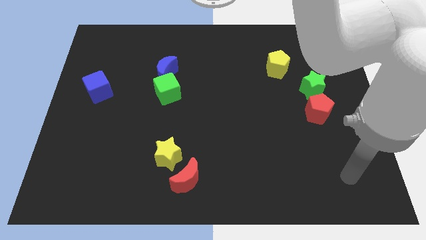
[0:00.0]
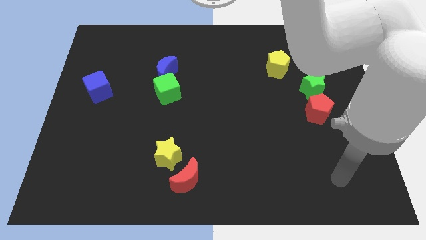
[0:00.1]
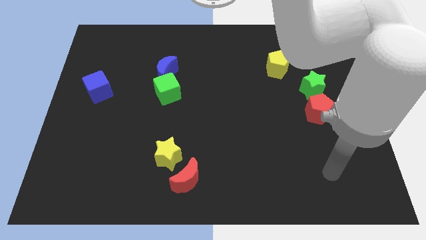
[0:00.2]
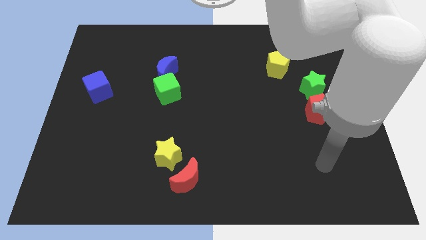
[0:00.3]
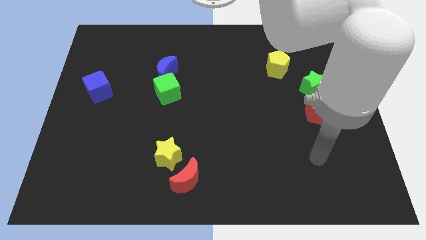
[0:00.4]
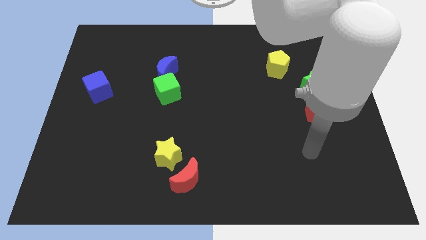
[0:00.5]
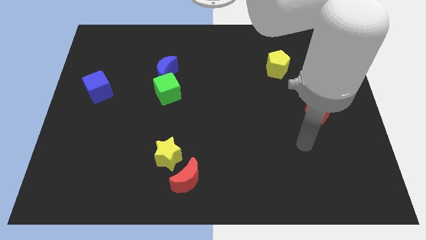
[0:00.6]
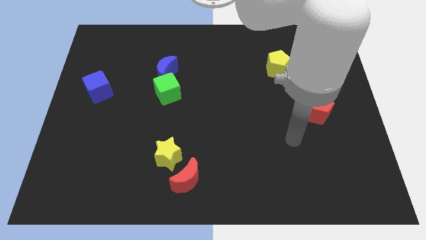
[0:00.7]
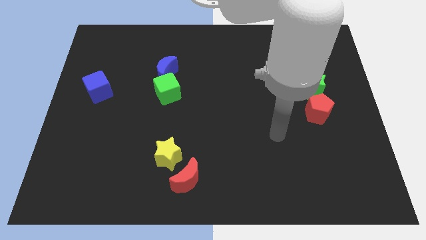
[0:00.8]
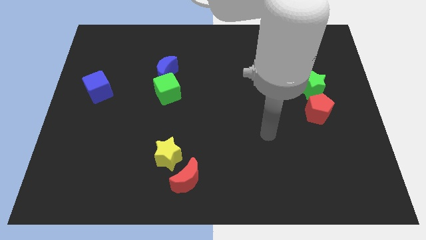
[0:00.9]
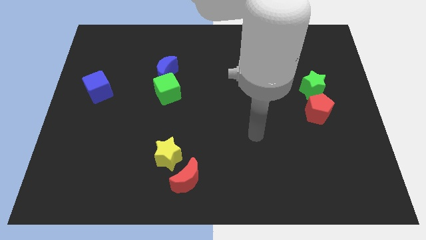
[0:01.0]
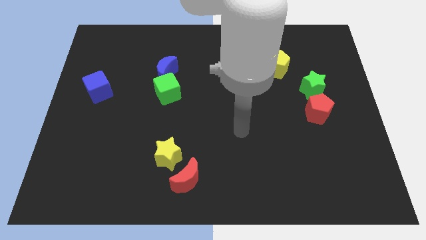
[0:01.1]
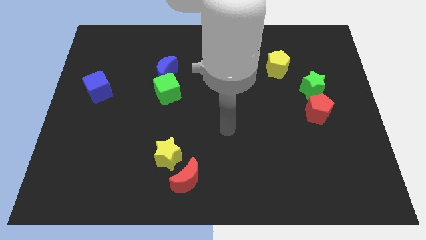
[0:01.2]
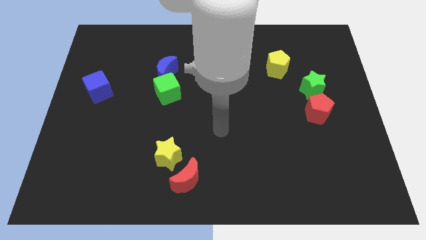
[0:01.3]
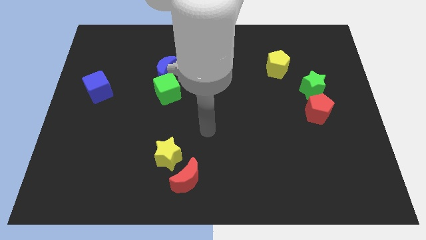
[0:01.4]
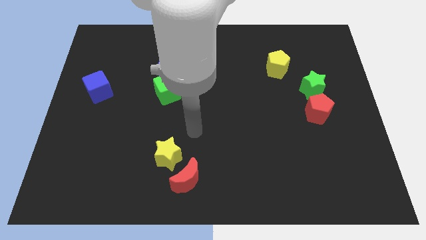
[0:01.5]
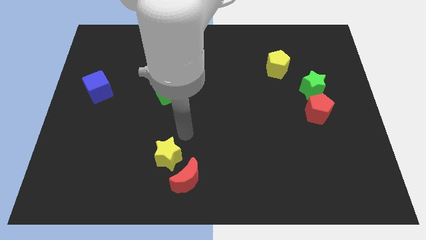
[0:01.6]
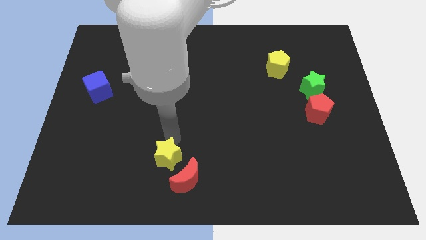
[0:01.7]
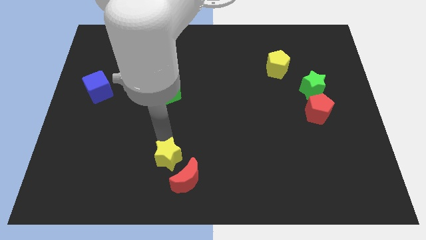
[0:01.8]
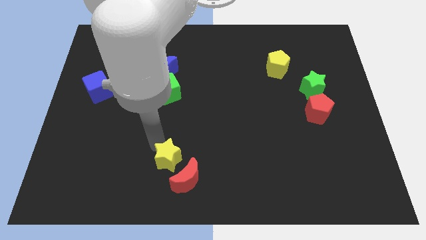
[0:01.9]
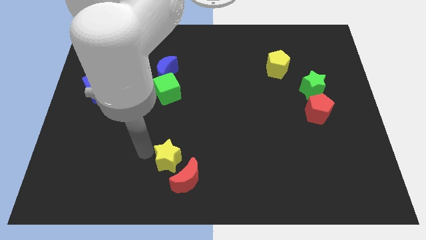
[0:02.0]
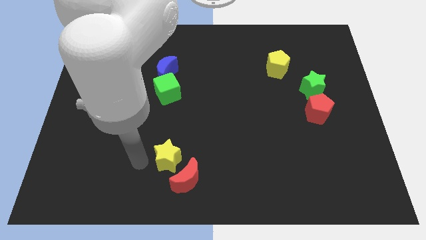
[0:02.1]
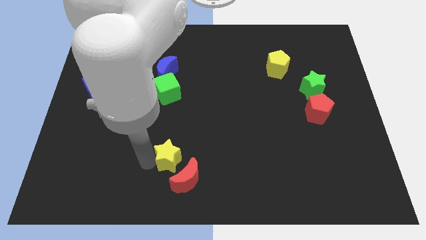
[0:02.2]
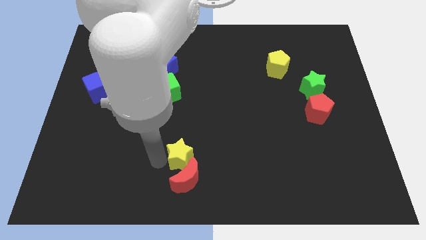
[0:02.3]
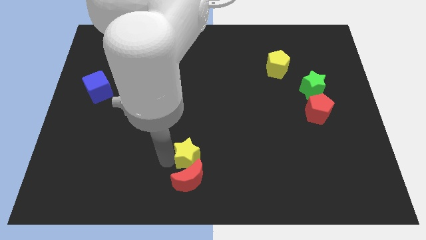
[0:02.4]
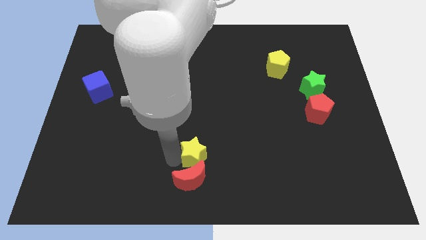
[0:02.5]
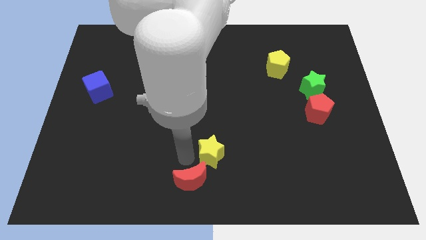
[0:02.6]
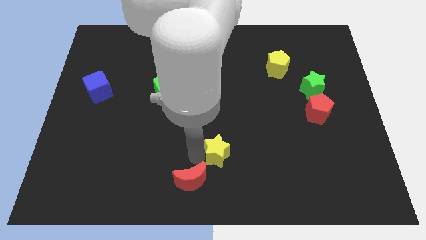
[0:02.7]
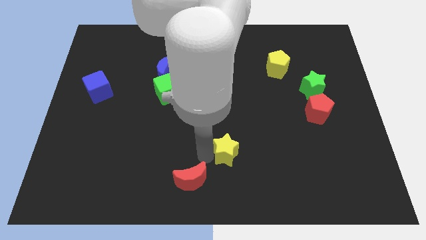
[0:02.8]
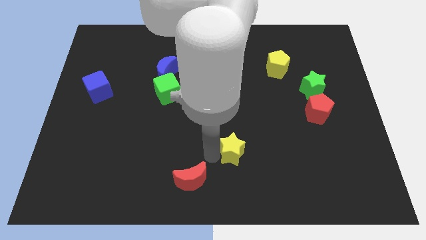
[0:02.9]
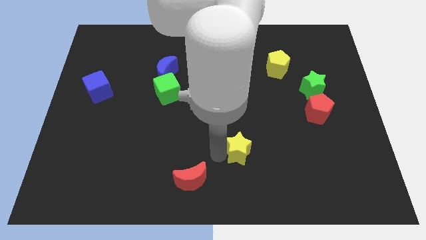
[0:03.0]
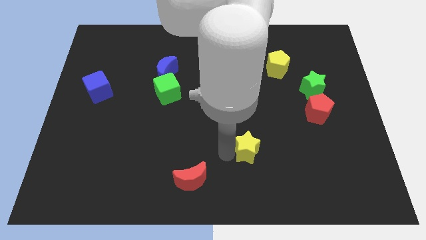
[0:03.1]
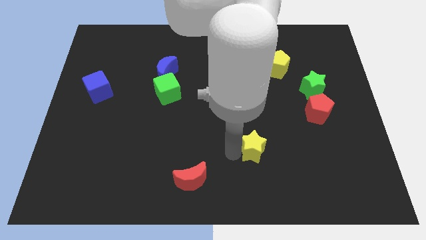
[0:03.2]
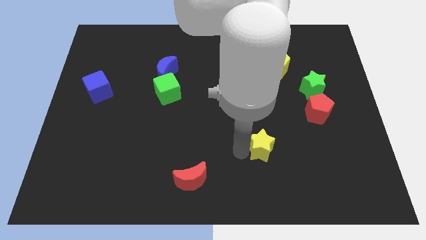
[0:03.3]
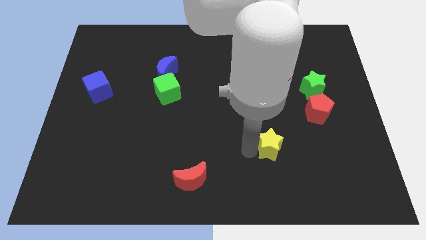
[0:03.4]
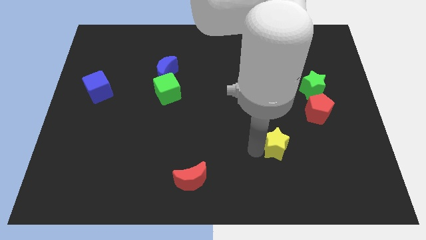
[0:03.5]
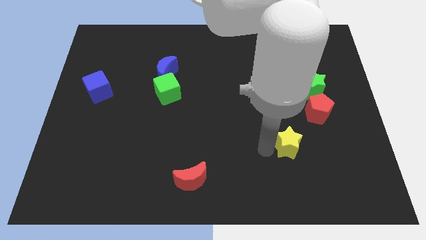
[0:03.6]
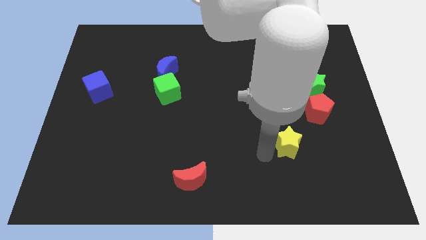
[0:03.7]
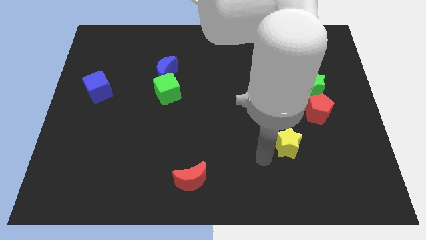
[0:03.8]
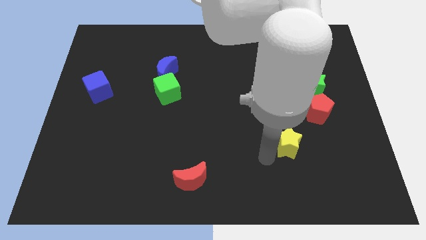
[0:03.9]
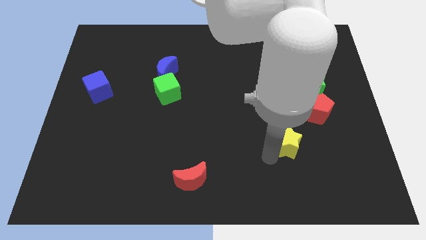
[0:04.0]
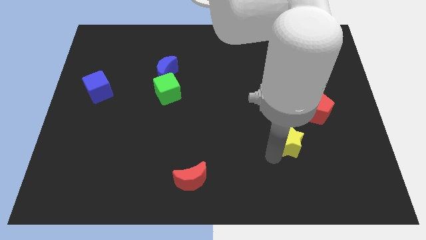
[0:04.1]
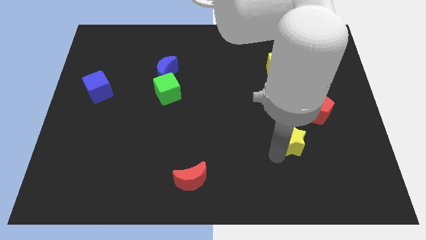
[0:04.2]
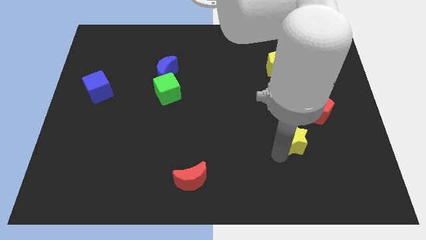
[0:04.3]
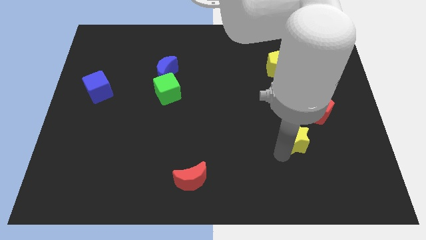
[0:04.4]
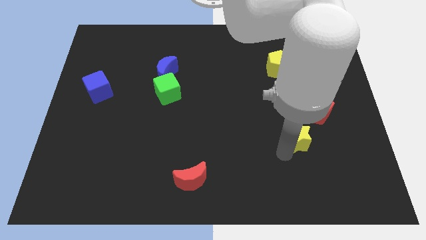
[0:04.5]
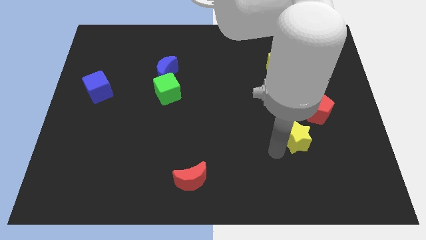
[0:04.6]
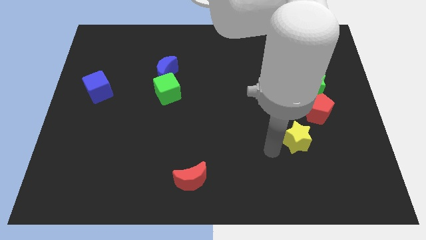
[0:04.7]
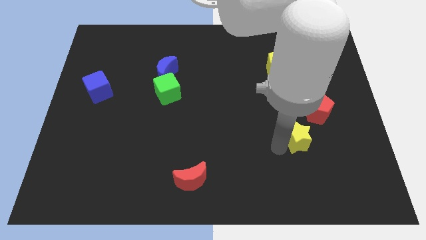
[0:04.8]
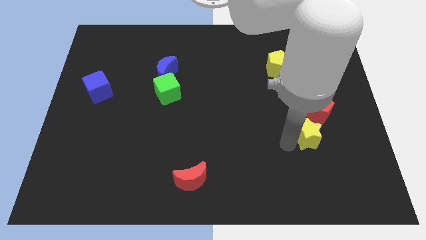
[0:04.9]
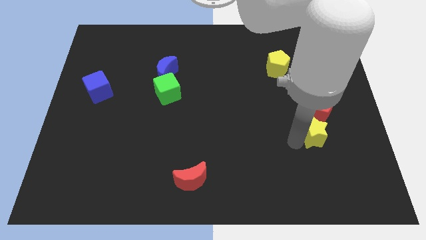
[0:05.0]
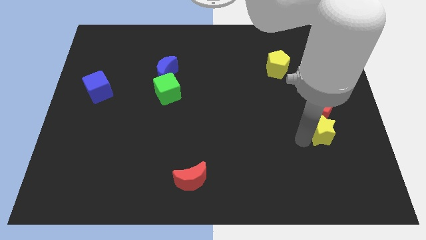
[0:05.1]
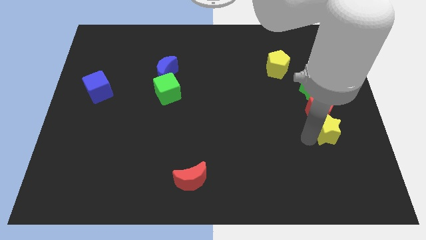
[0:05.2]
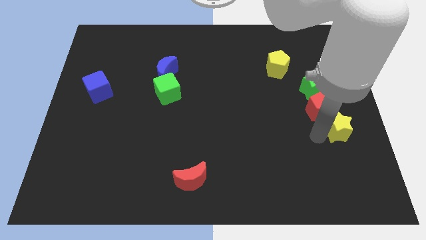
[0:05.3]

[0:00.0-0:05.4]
push the yellow star to the right side

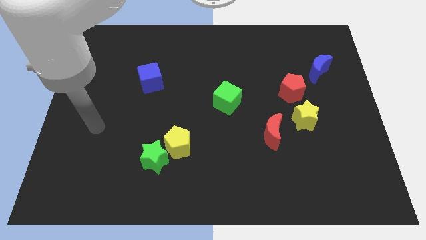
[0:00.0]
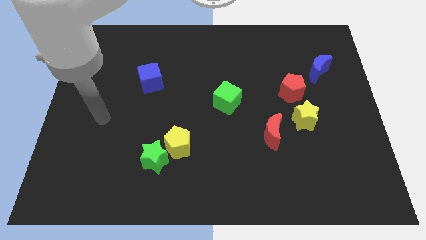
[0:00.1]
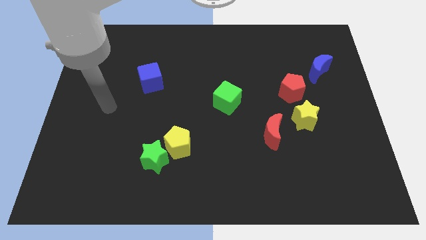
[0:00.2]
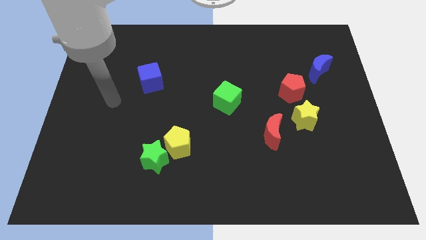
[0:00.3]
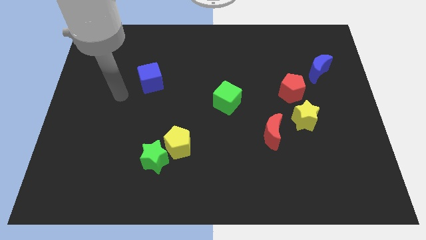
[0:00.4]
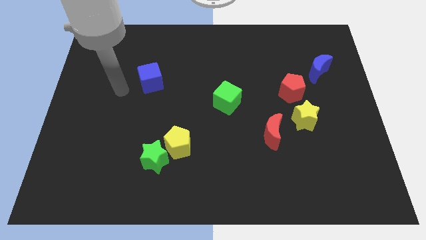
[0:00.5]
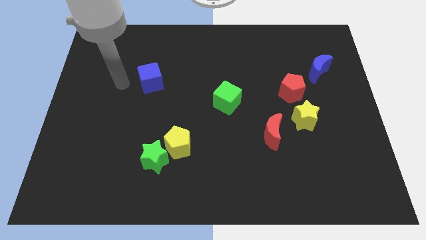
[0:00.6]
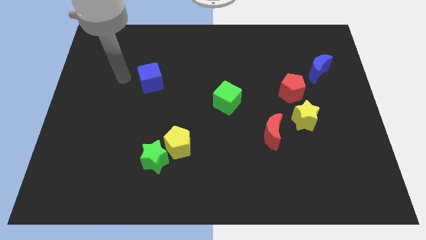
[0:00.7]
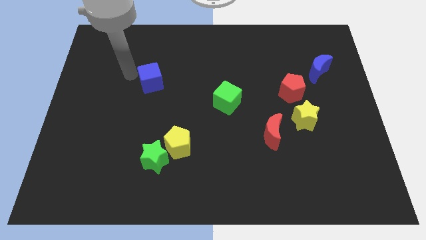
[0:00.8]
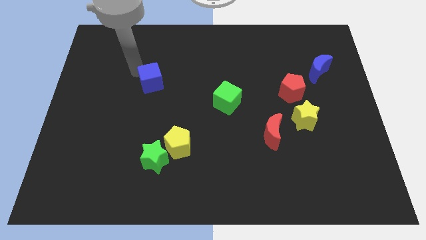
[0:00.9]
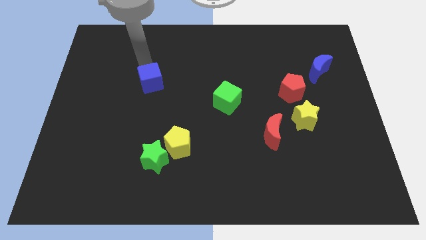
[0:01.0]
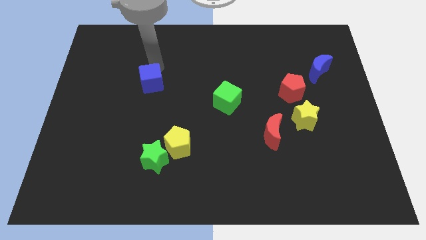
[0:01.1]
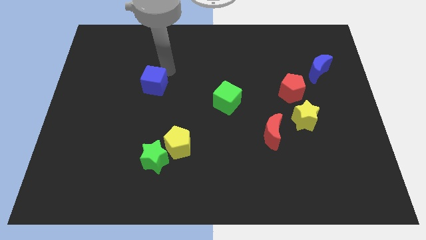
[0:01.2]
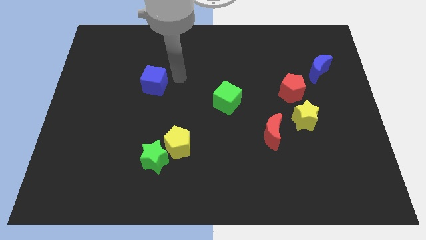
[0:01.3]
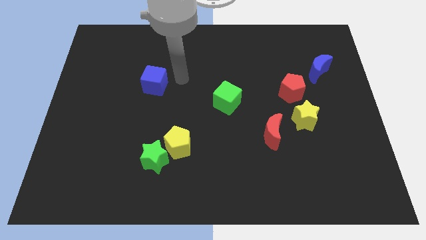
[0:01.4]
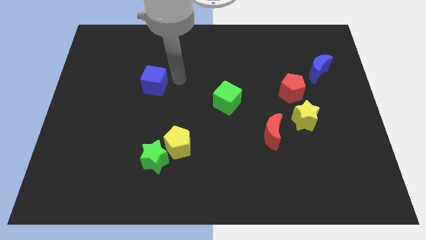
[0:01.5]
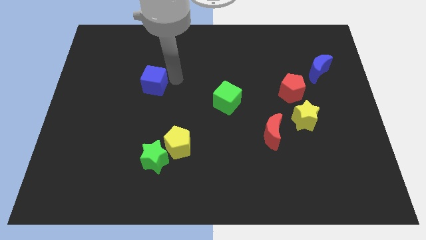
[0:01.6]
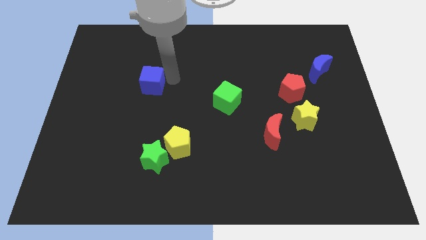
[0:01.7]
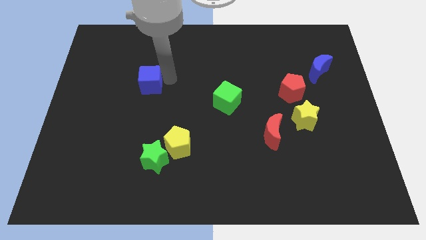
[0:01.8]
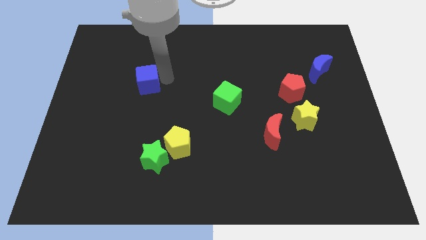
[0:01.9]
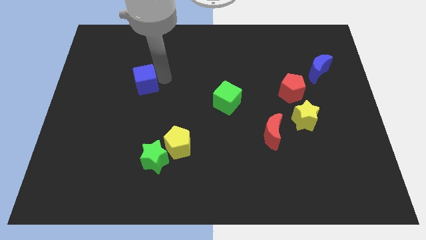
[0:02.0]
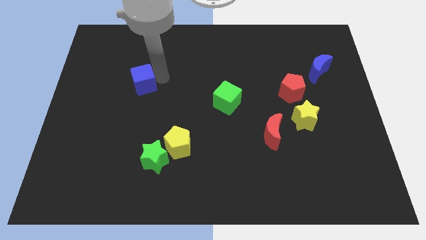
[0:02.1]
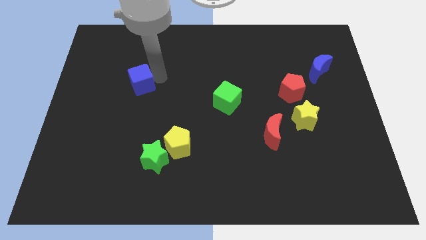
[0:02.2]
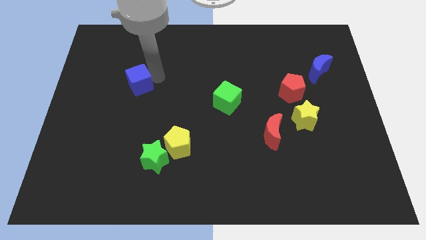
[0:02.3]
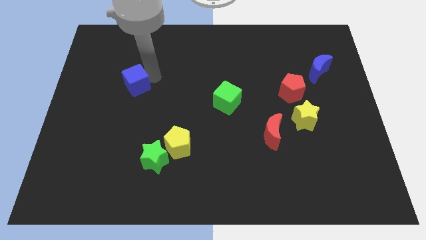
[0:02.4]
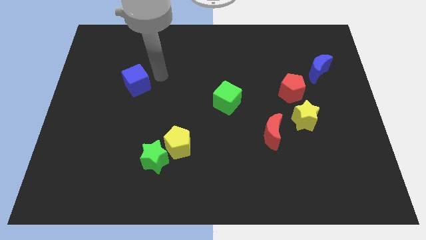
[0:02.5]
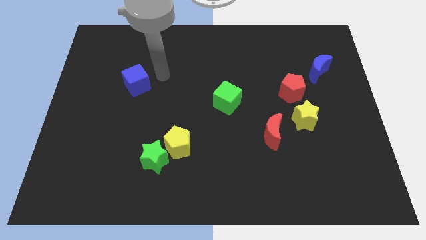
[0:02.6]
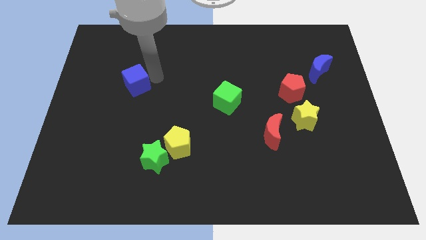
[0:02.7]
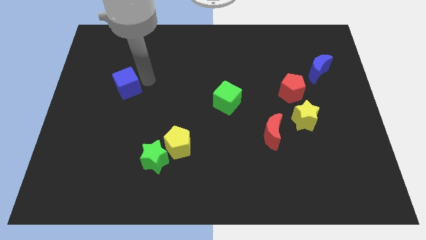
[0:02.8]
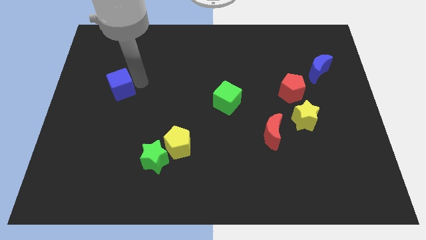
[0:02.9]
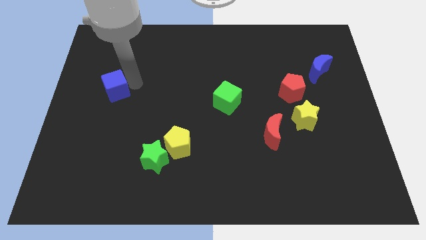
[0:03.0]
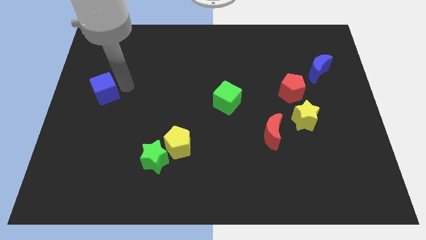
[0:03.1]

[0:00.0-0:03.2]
slide the blue cube to the left side of the board
